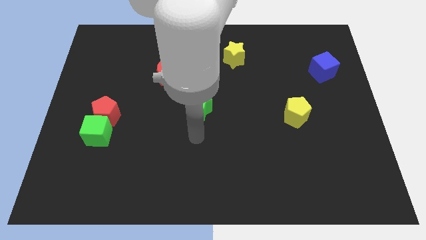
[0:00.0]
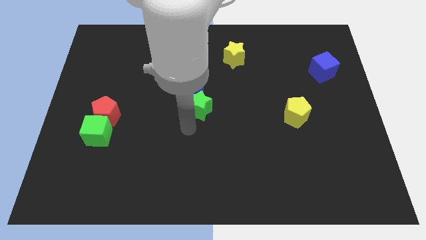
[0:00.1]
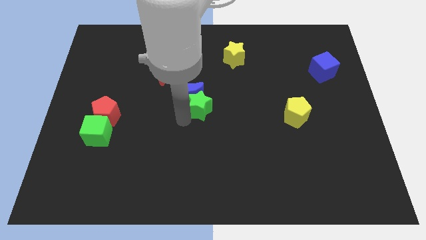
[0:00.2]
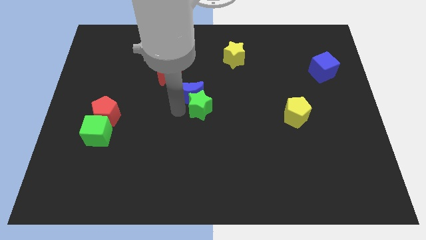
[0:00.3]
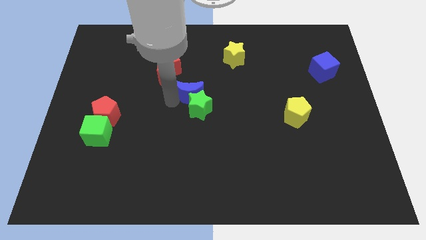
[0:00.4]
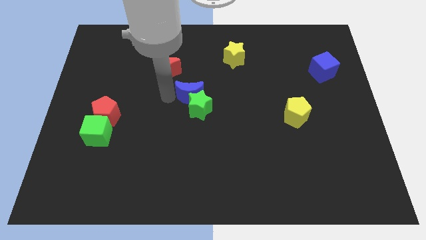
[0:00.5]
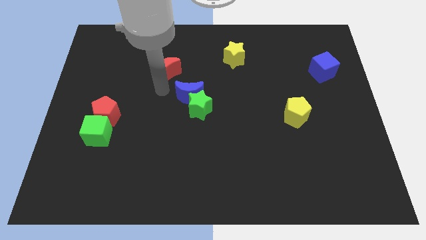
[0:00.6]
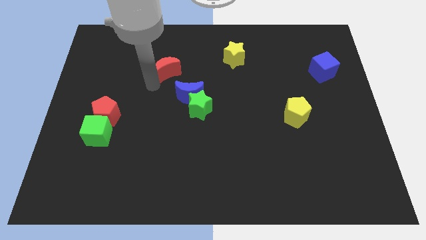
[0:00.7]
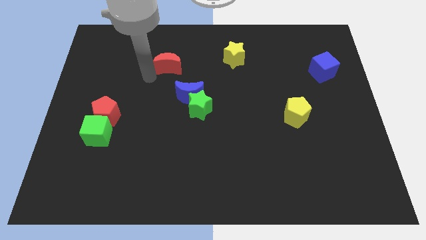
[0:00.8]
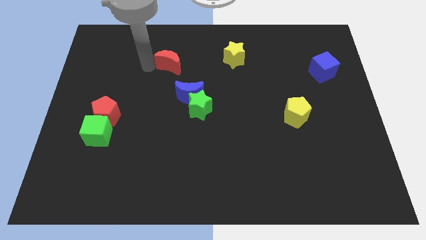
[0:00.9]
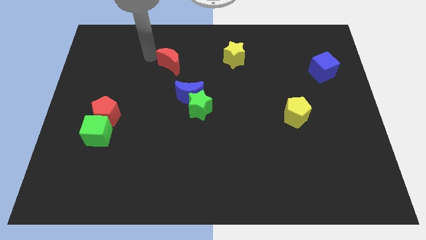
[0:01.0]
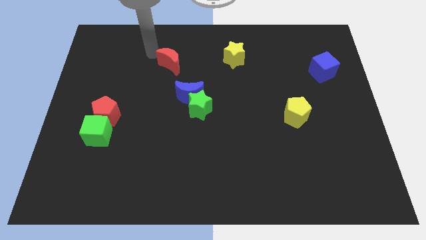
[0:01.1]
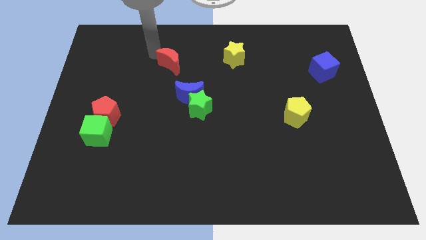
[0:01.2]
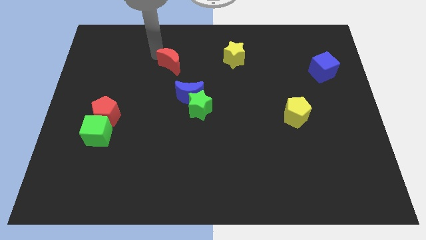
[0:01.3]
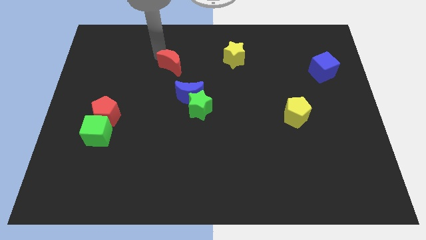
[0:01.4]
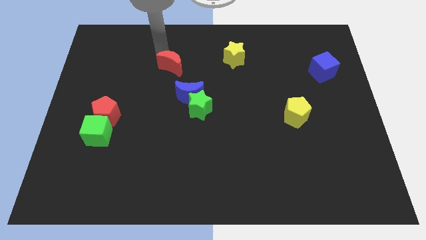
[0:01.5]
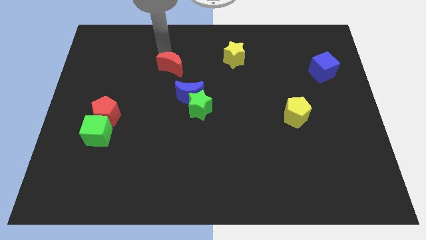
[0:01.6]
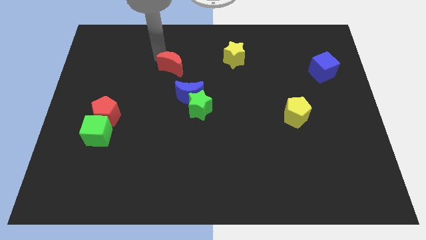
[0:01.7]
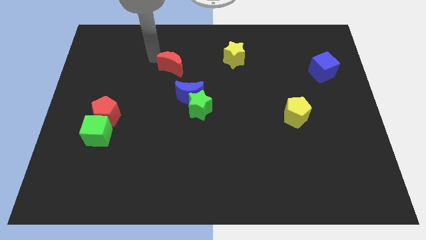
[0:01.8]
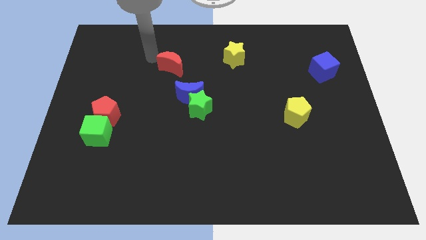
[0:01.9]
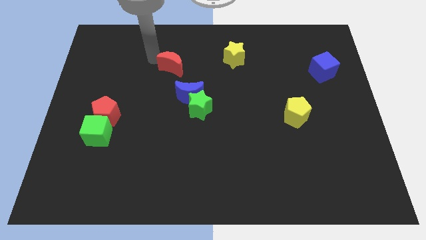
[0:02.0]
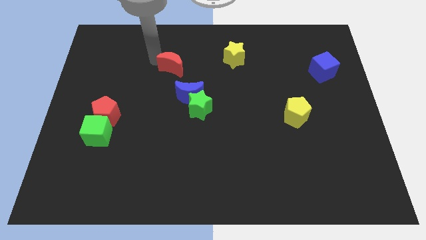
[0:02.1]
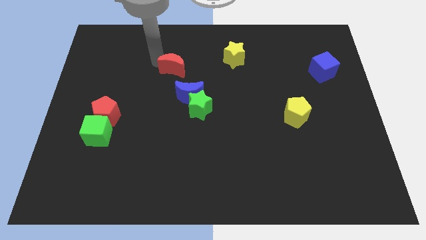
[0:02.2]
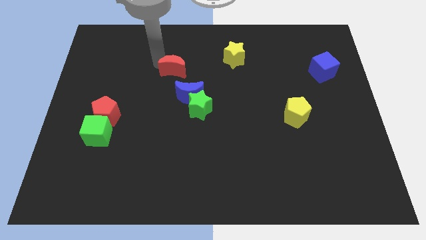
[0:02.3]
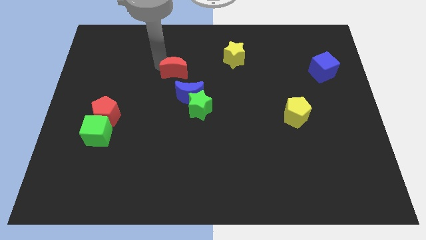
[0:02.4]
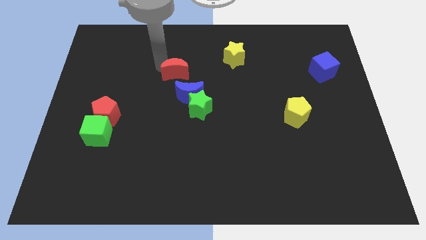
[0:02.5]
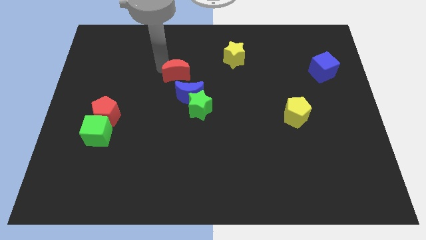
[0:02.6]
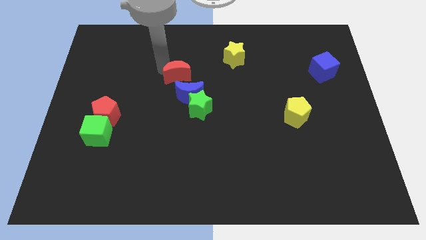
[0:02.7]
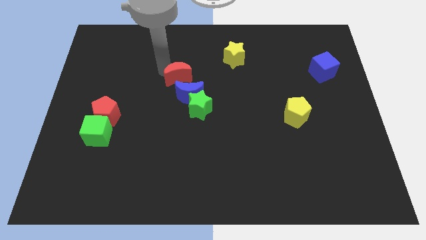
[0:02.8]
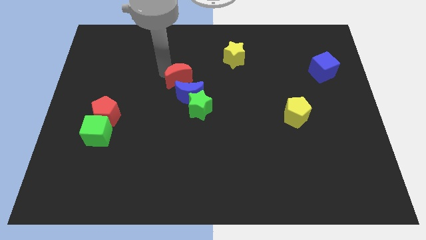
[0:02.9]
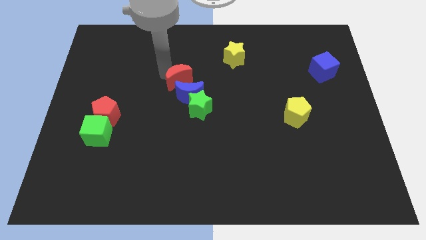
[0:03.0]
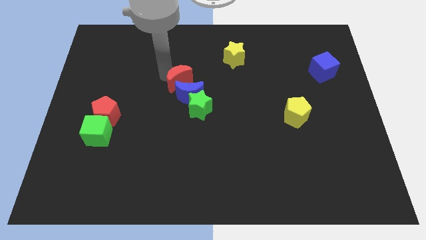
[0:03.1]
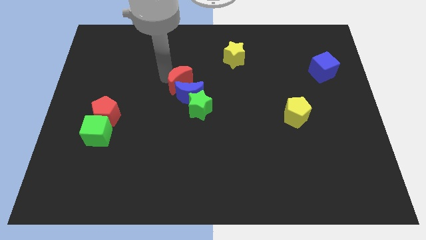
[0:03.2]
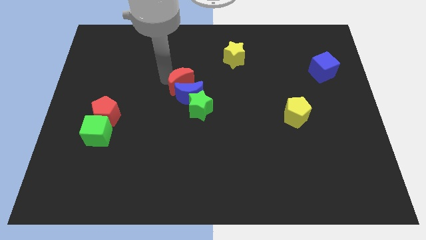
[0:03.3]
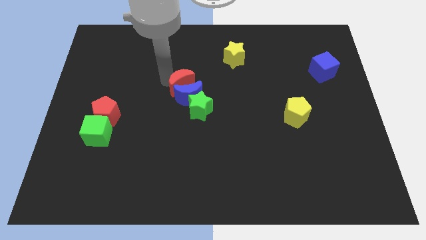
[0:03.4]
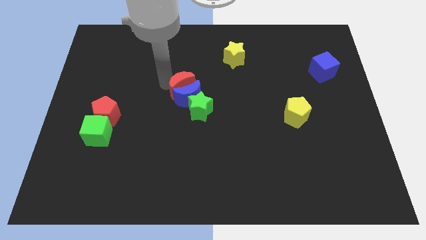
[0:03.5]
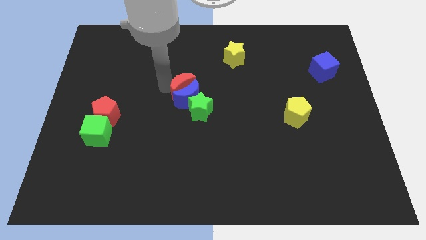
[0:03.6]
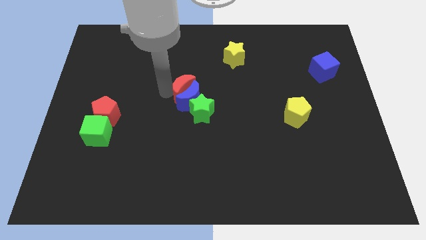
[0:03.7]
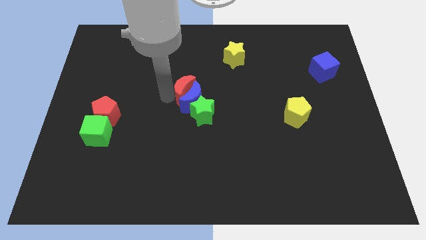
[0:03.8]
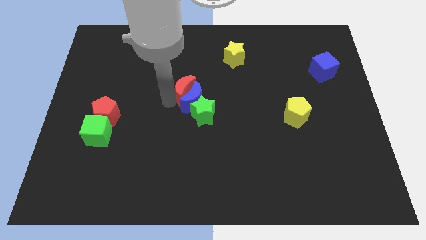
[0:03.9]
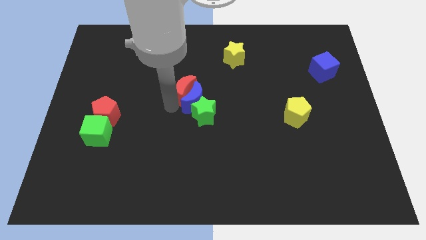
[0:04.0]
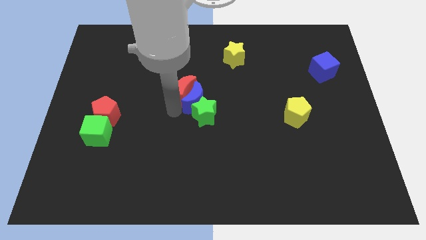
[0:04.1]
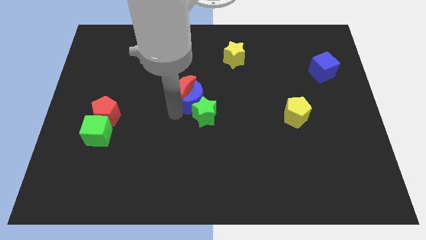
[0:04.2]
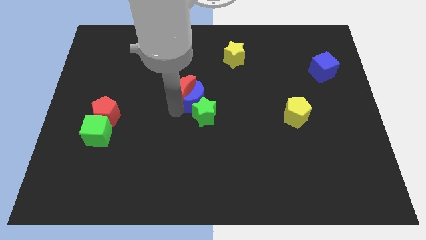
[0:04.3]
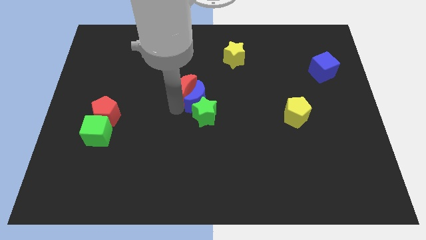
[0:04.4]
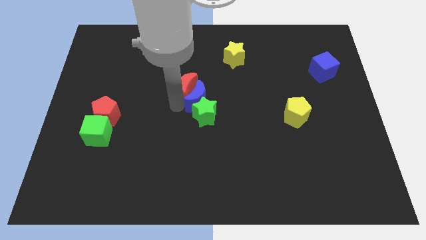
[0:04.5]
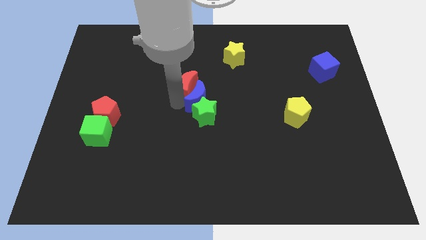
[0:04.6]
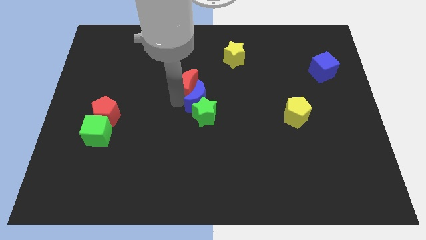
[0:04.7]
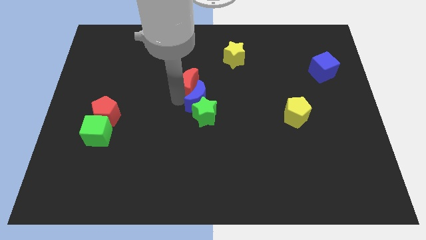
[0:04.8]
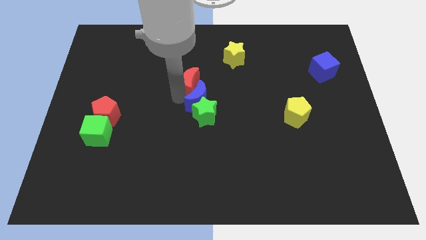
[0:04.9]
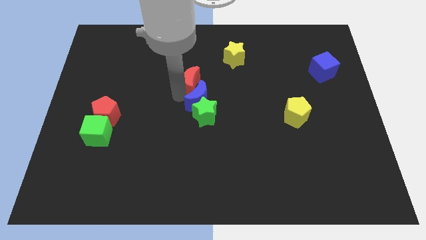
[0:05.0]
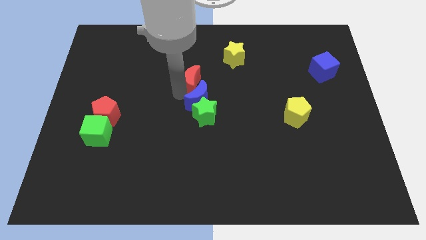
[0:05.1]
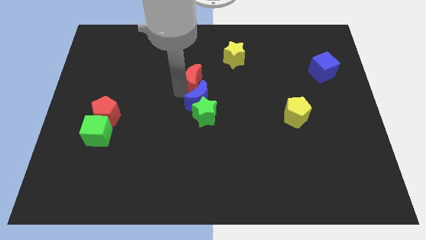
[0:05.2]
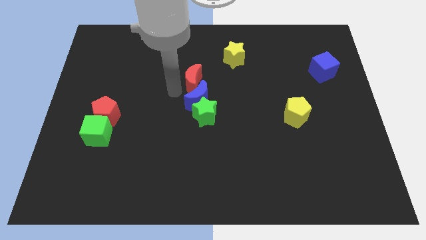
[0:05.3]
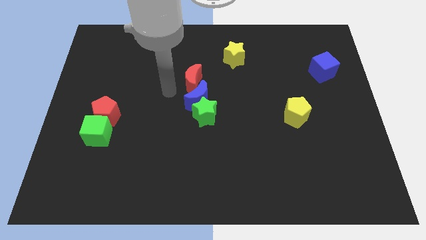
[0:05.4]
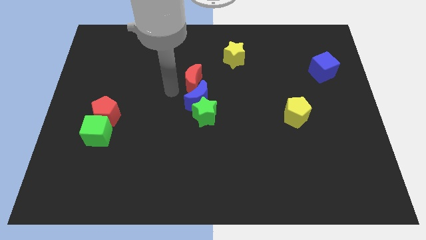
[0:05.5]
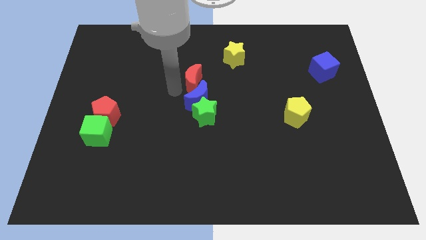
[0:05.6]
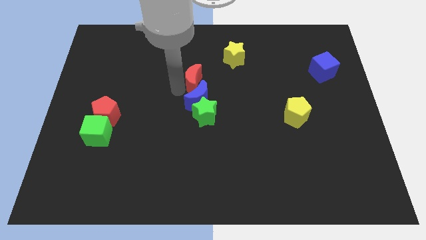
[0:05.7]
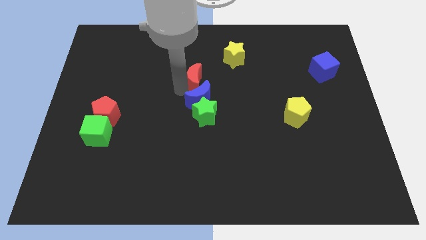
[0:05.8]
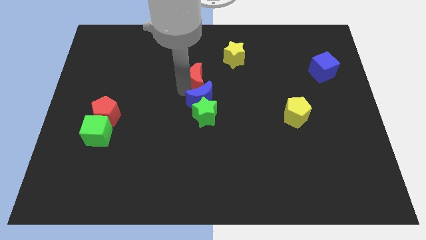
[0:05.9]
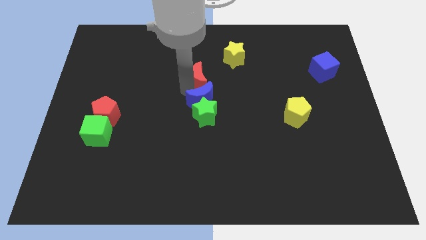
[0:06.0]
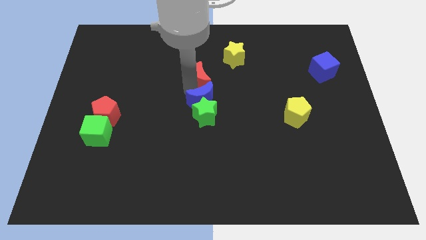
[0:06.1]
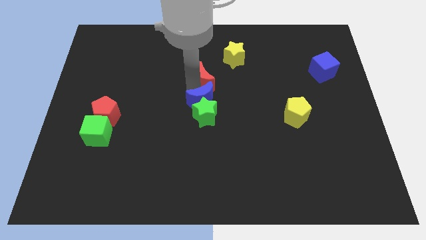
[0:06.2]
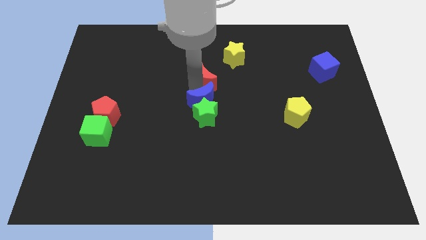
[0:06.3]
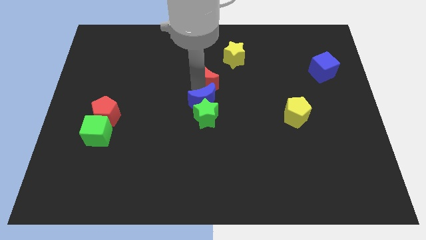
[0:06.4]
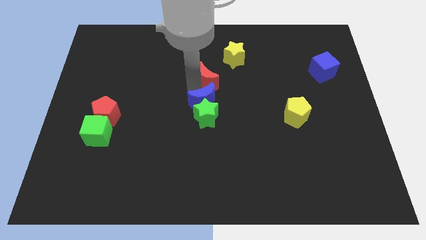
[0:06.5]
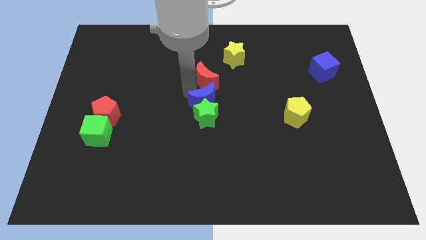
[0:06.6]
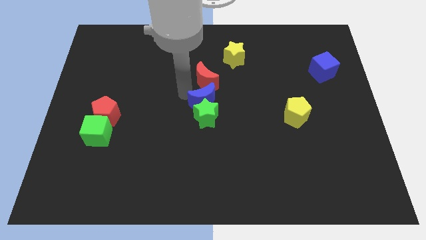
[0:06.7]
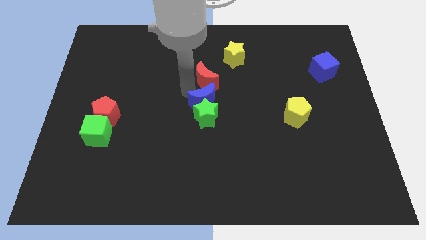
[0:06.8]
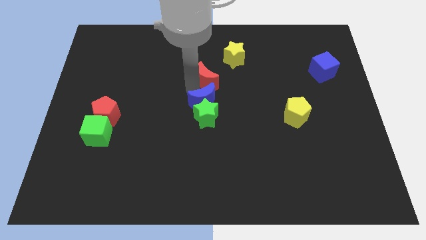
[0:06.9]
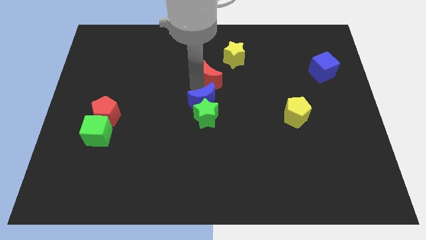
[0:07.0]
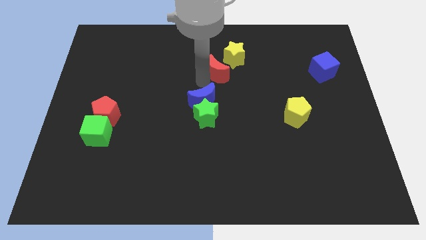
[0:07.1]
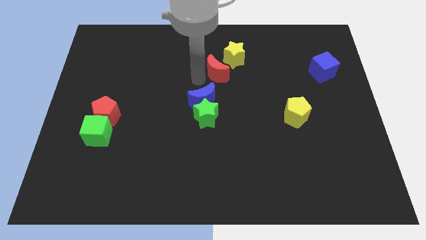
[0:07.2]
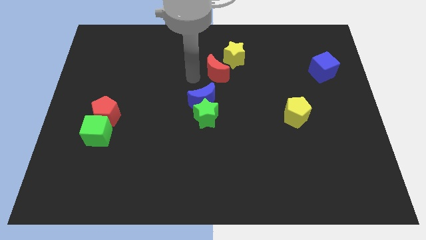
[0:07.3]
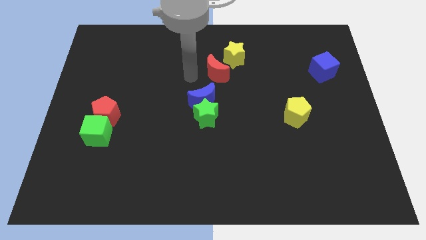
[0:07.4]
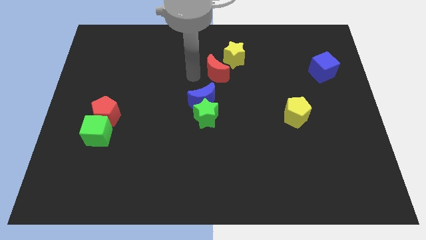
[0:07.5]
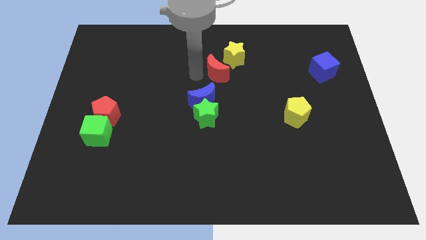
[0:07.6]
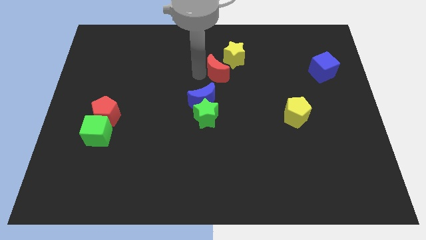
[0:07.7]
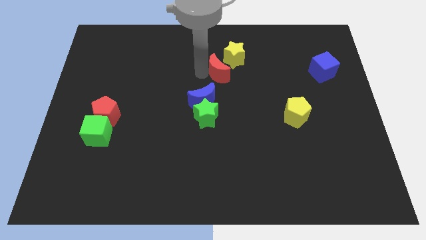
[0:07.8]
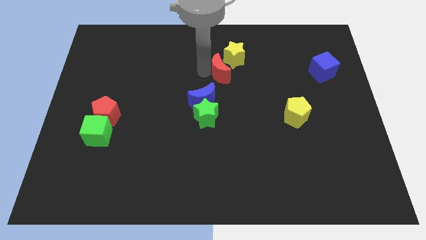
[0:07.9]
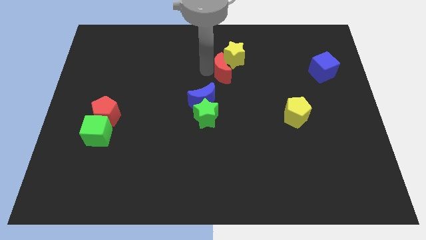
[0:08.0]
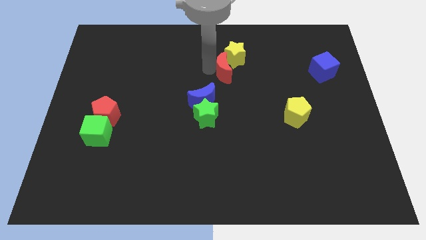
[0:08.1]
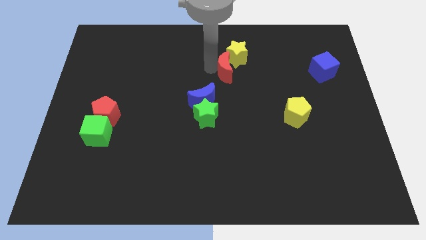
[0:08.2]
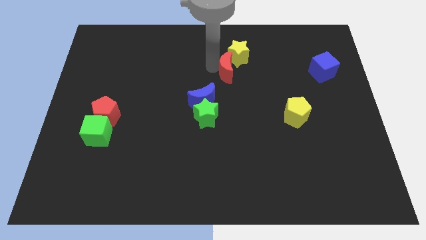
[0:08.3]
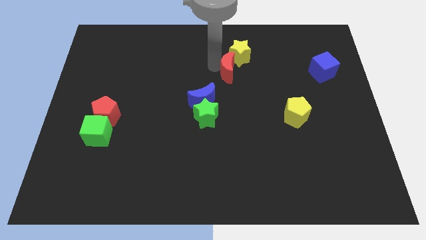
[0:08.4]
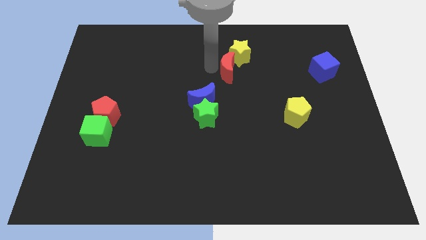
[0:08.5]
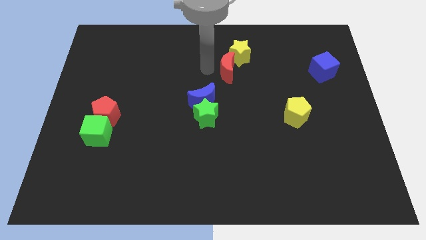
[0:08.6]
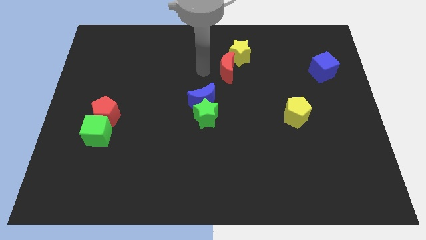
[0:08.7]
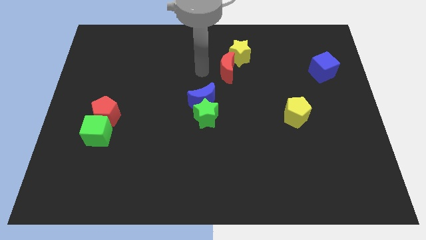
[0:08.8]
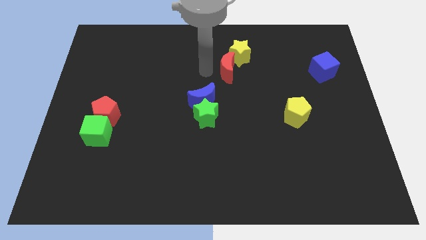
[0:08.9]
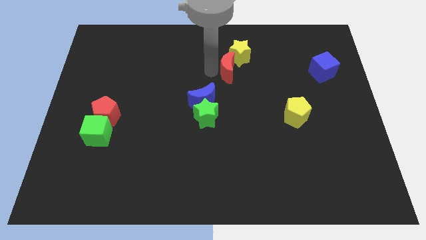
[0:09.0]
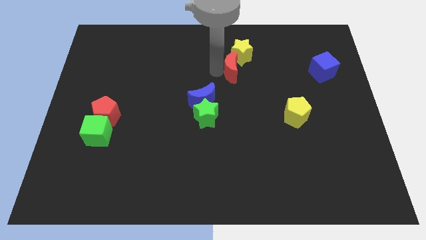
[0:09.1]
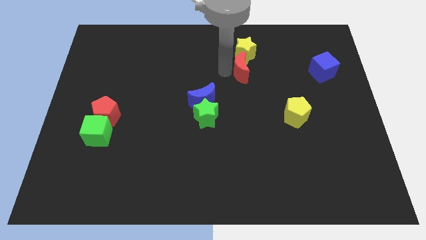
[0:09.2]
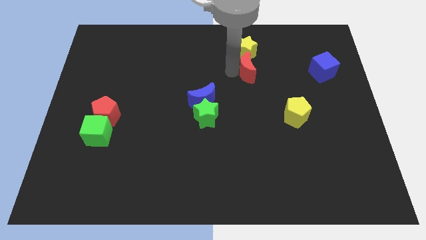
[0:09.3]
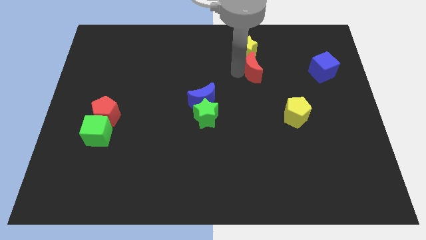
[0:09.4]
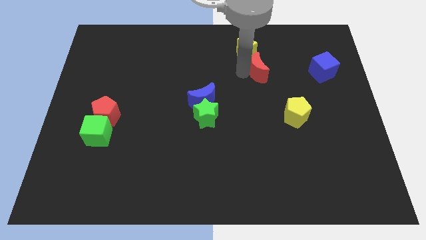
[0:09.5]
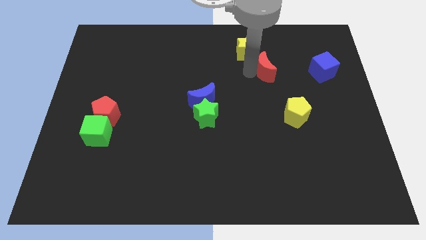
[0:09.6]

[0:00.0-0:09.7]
slide the red moon to the left side of the blue cube
